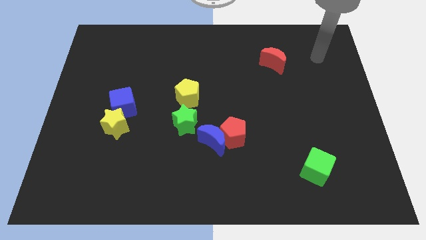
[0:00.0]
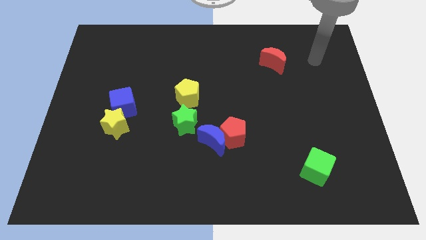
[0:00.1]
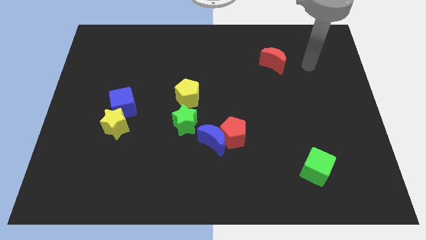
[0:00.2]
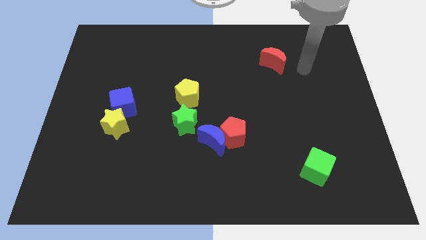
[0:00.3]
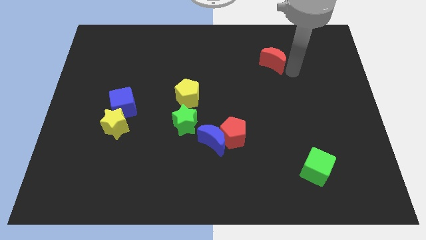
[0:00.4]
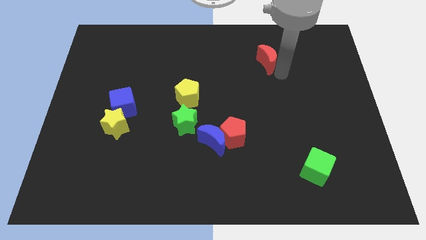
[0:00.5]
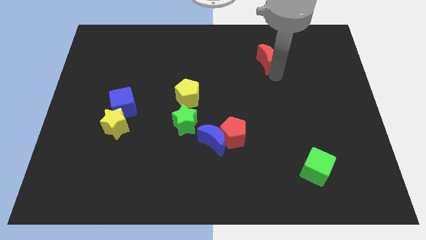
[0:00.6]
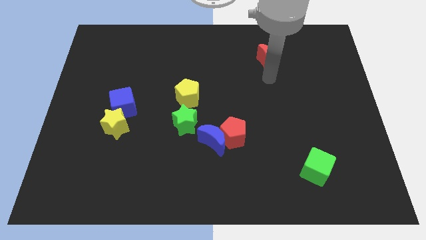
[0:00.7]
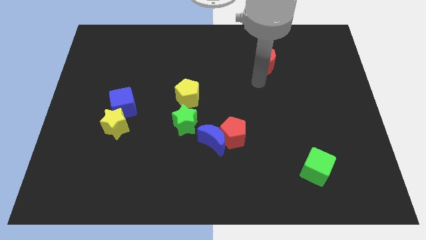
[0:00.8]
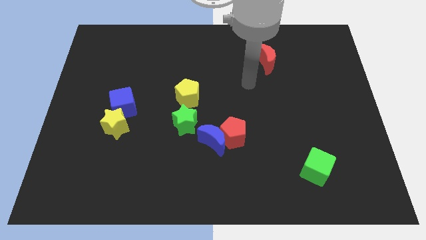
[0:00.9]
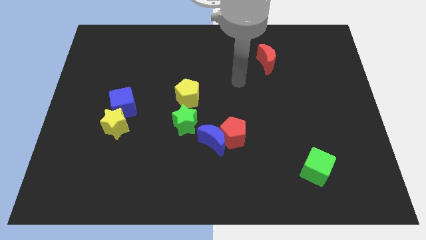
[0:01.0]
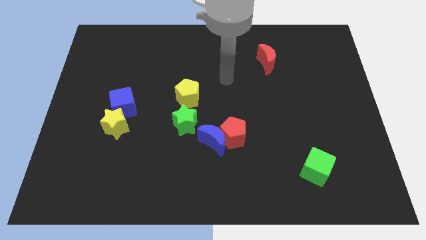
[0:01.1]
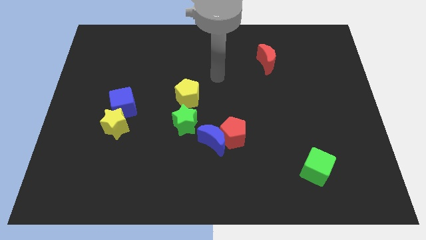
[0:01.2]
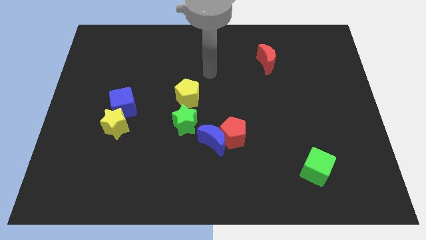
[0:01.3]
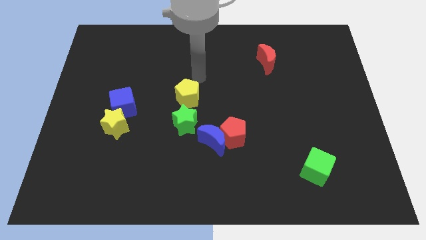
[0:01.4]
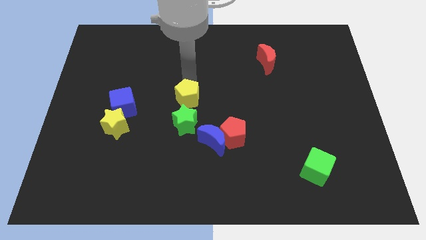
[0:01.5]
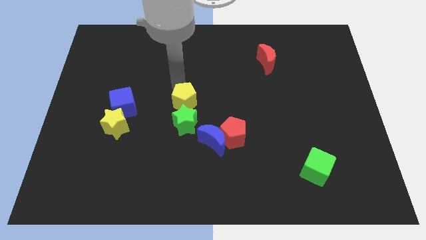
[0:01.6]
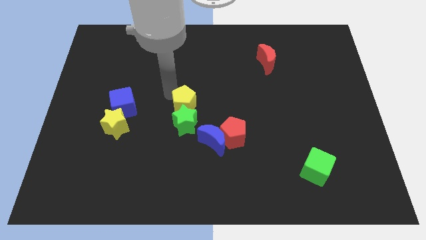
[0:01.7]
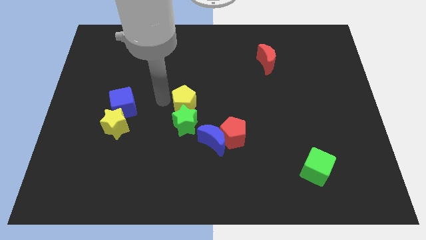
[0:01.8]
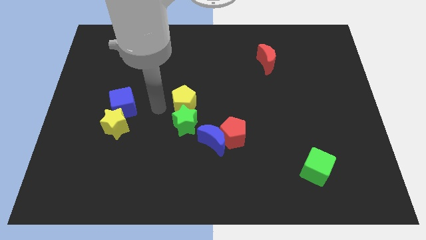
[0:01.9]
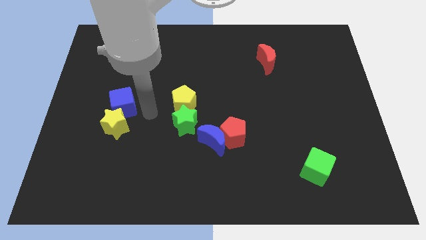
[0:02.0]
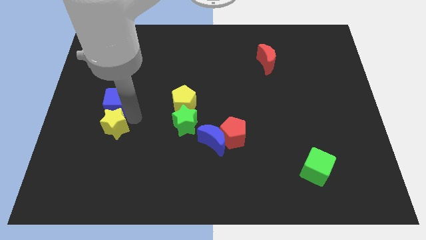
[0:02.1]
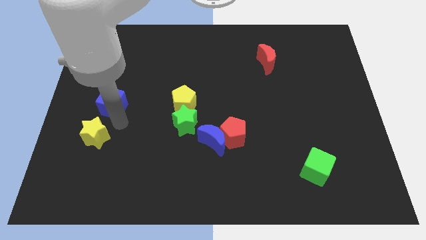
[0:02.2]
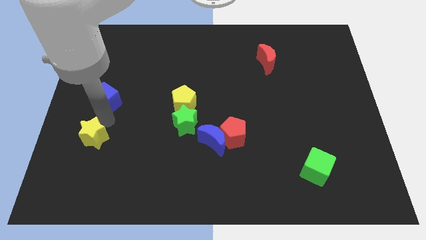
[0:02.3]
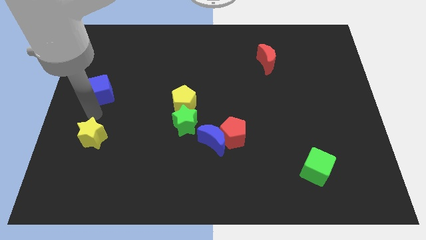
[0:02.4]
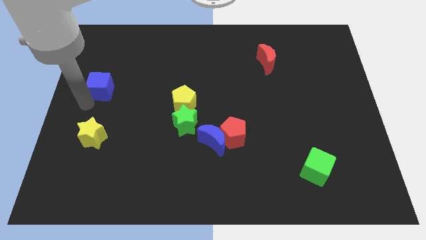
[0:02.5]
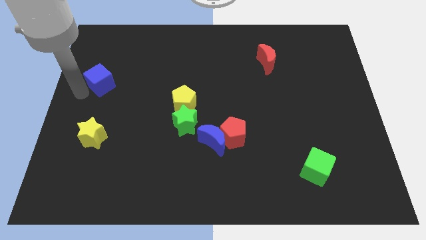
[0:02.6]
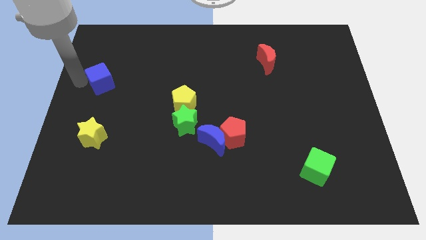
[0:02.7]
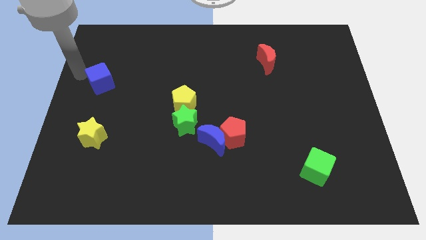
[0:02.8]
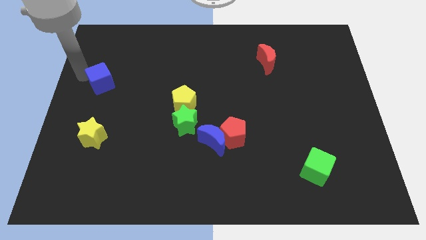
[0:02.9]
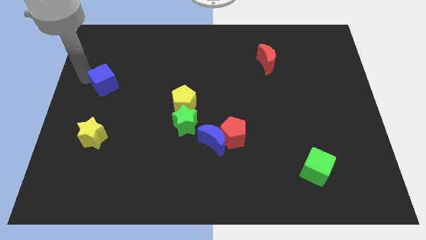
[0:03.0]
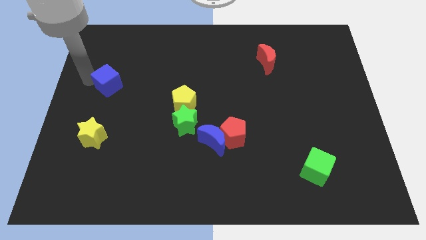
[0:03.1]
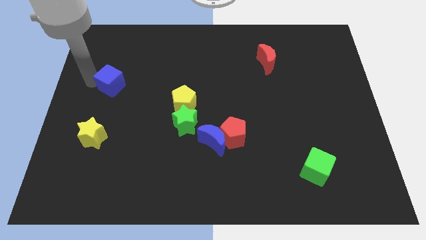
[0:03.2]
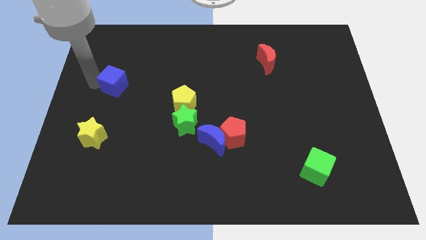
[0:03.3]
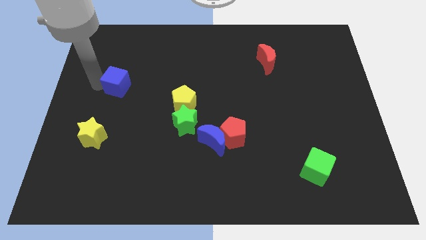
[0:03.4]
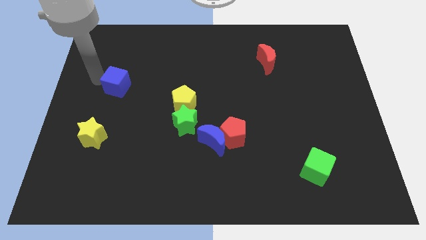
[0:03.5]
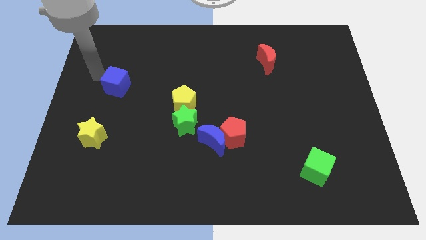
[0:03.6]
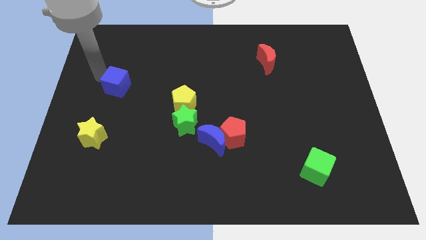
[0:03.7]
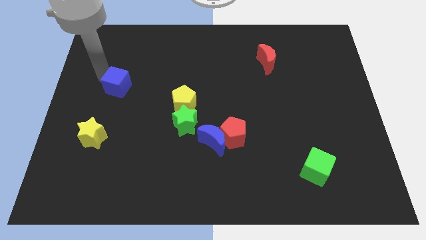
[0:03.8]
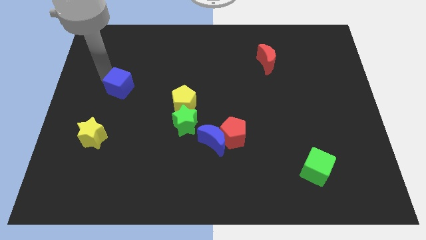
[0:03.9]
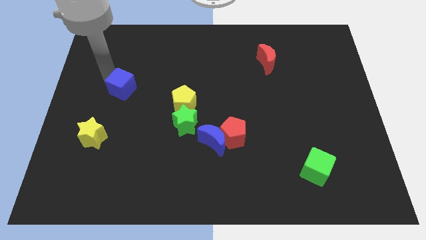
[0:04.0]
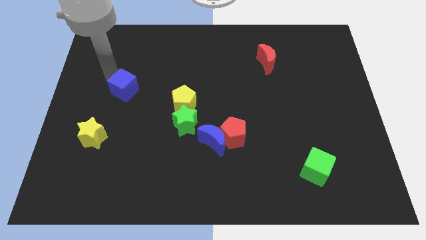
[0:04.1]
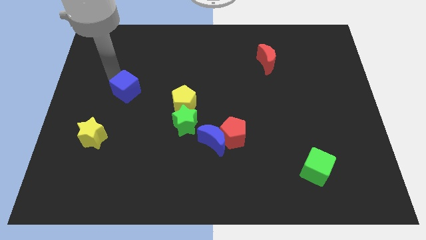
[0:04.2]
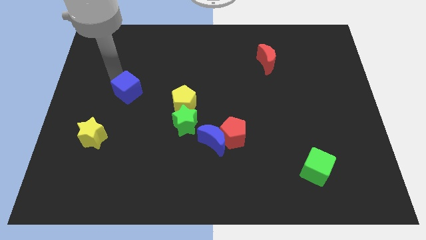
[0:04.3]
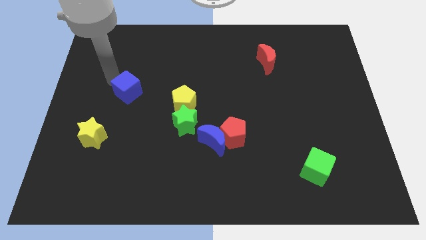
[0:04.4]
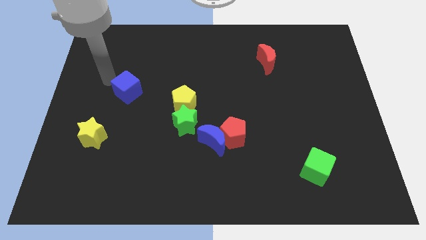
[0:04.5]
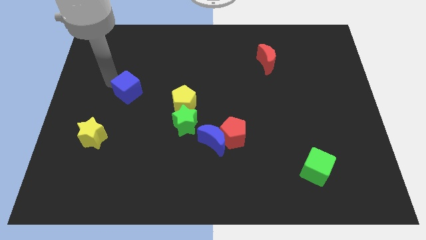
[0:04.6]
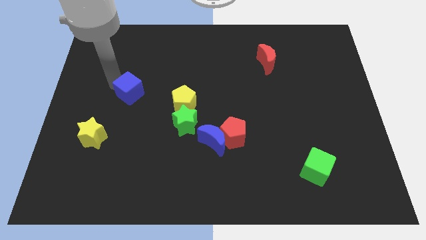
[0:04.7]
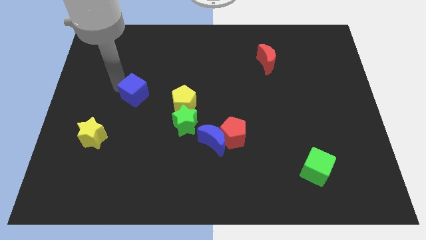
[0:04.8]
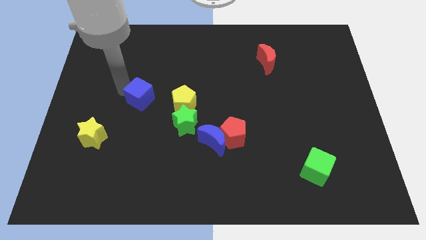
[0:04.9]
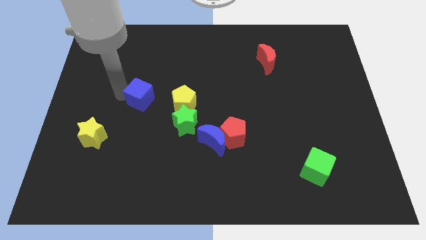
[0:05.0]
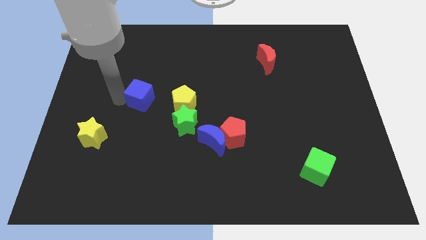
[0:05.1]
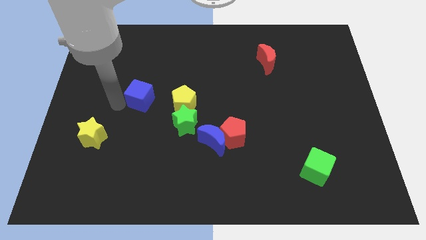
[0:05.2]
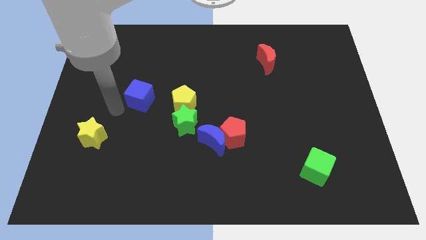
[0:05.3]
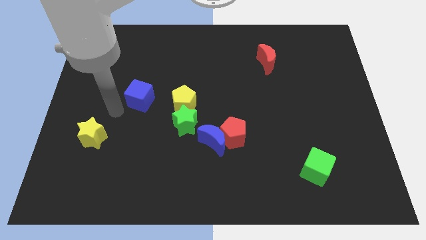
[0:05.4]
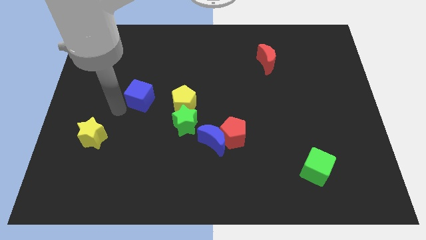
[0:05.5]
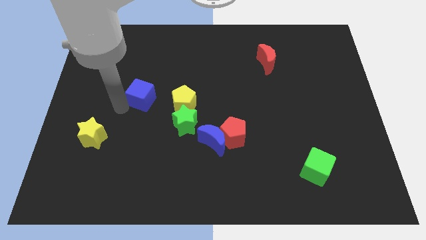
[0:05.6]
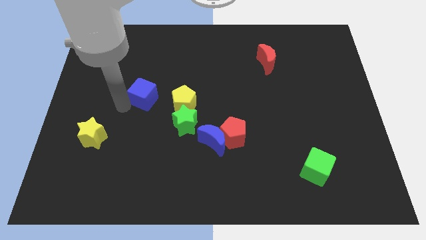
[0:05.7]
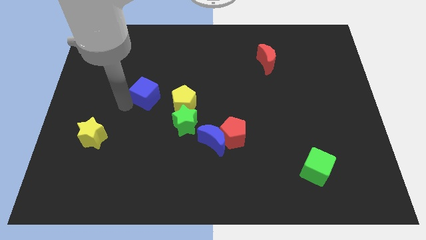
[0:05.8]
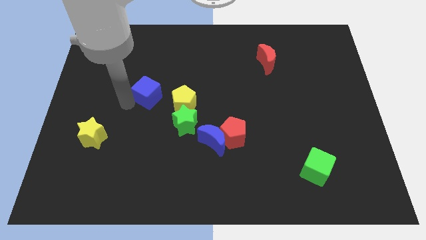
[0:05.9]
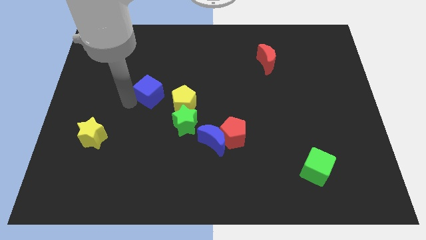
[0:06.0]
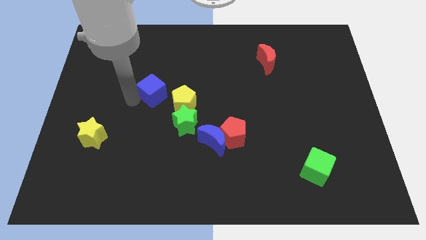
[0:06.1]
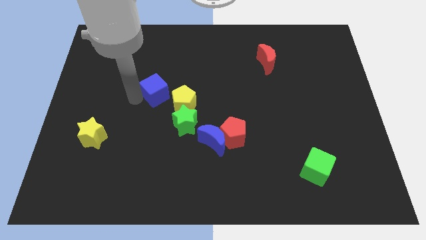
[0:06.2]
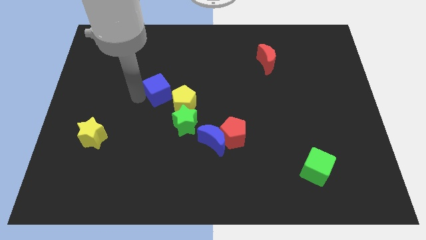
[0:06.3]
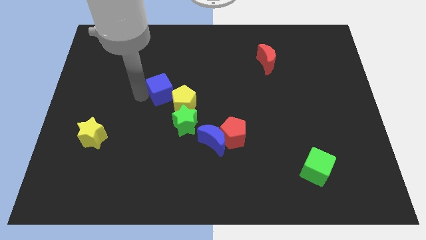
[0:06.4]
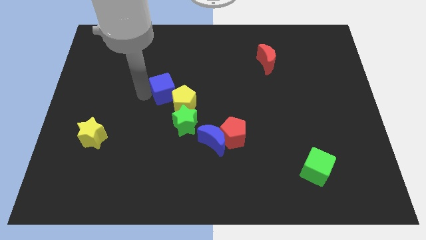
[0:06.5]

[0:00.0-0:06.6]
slide the blue cube to the middle
